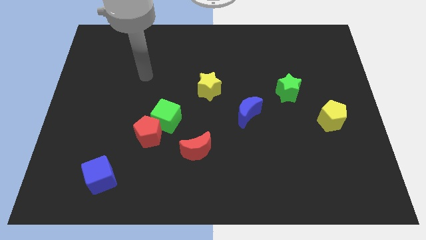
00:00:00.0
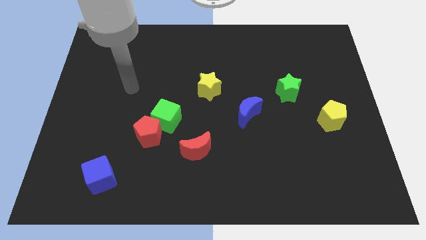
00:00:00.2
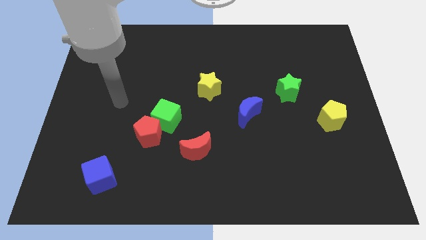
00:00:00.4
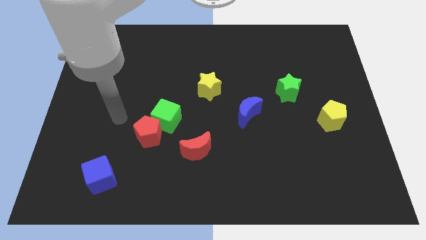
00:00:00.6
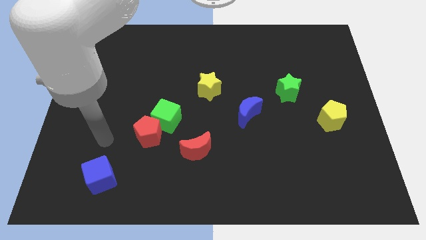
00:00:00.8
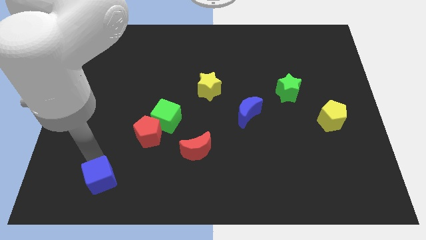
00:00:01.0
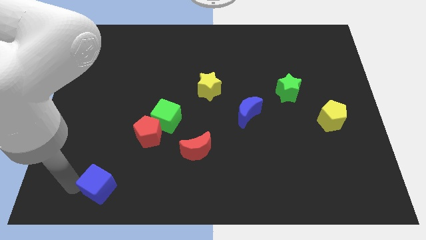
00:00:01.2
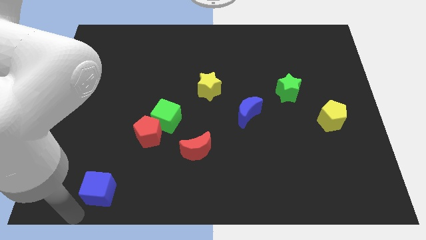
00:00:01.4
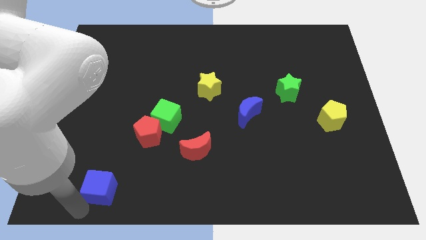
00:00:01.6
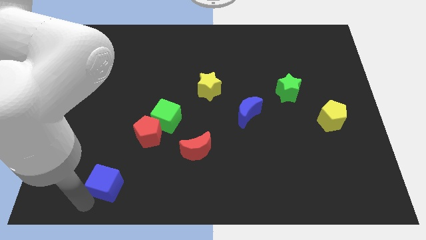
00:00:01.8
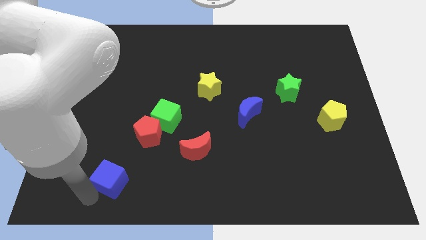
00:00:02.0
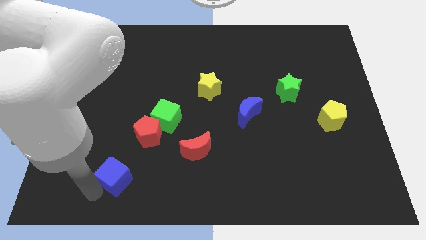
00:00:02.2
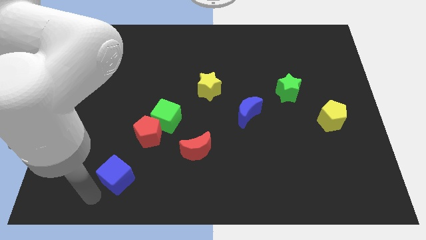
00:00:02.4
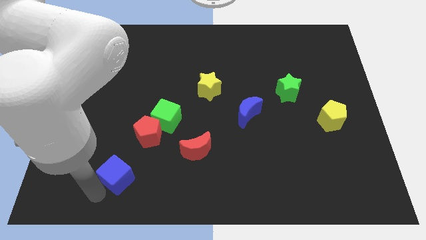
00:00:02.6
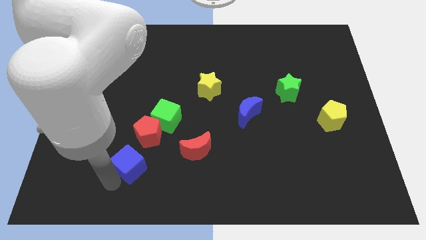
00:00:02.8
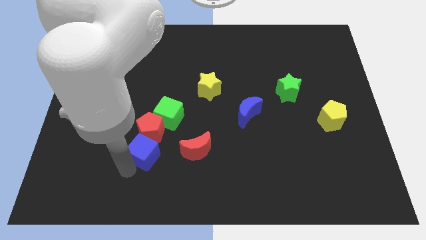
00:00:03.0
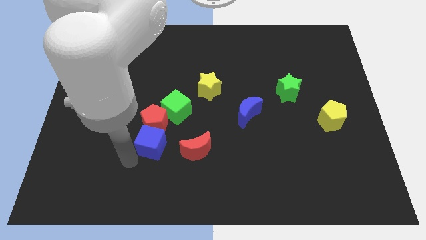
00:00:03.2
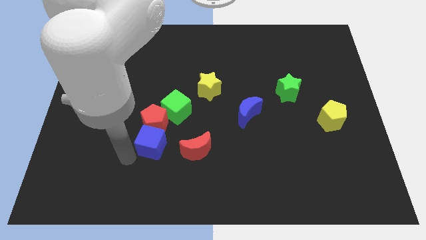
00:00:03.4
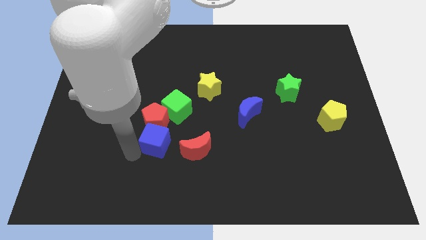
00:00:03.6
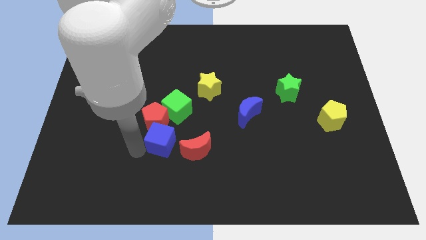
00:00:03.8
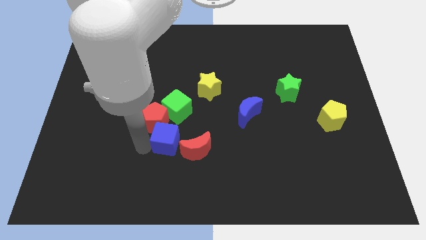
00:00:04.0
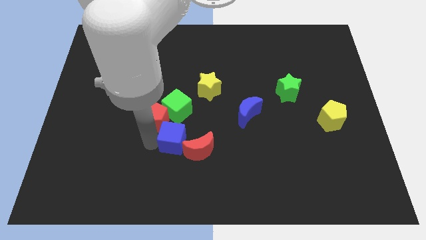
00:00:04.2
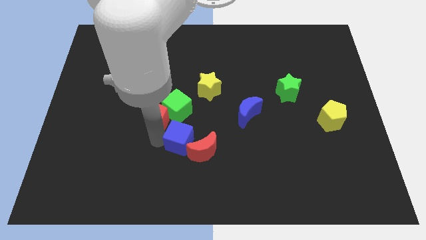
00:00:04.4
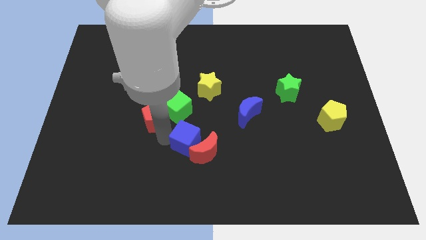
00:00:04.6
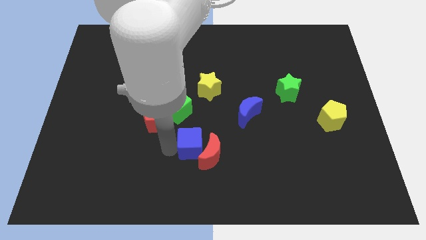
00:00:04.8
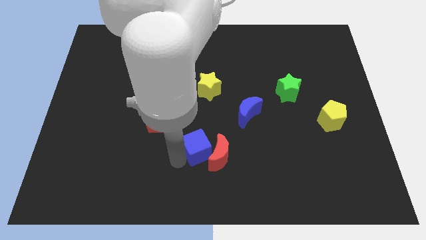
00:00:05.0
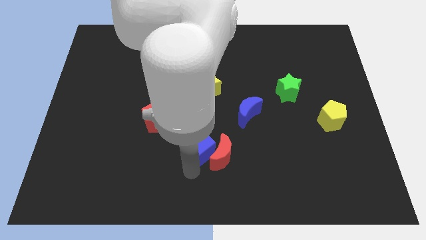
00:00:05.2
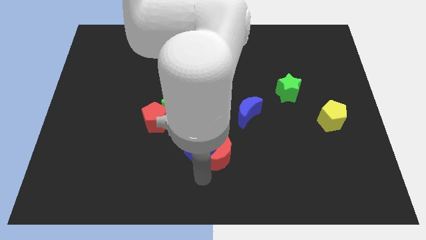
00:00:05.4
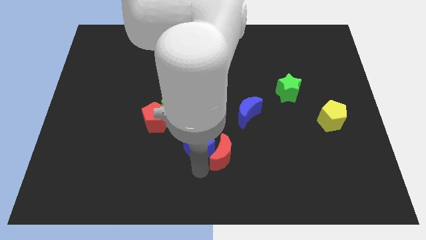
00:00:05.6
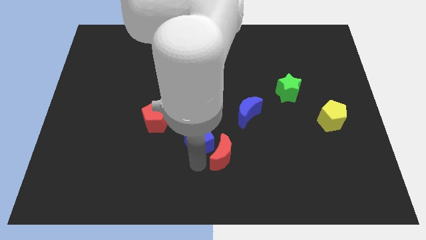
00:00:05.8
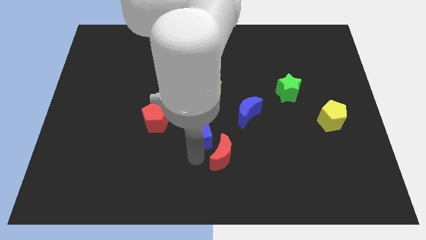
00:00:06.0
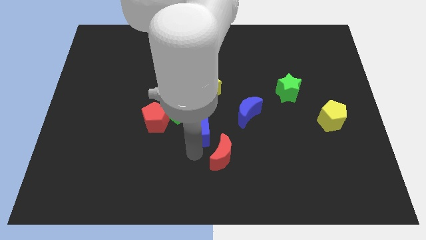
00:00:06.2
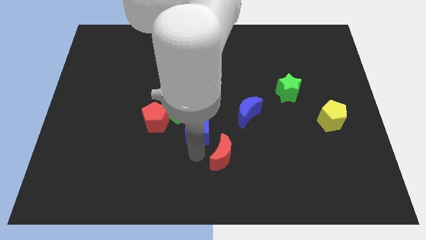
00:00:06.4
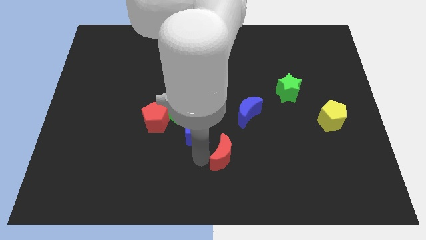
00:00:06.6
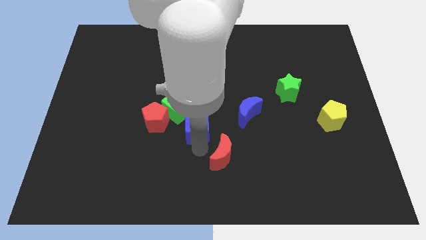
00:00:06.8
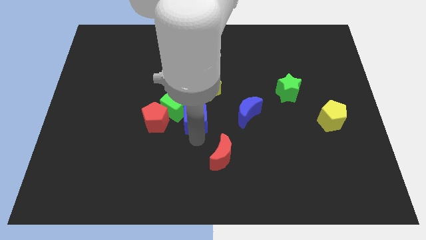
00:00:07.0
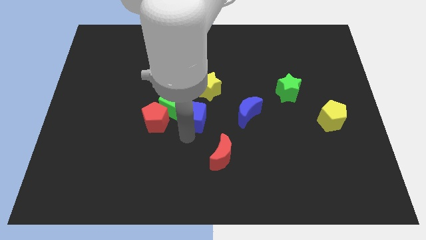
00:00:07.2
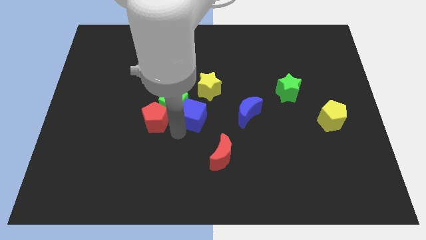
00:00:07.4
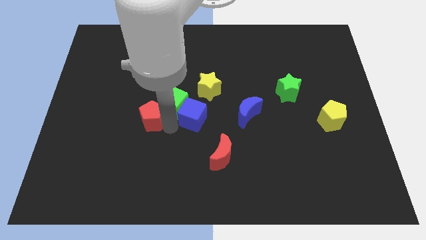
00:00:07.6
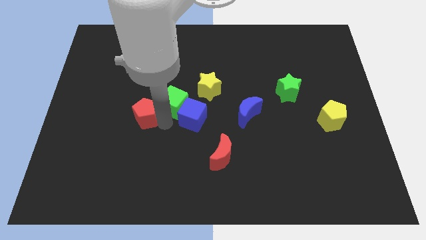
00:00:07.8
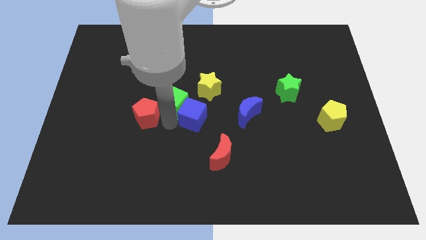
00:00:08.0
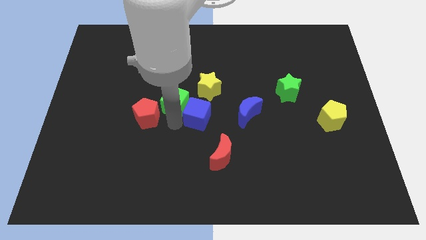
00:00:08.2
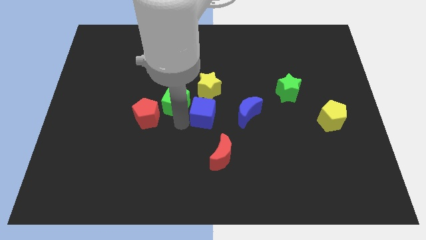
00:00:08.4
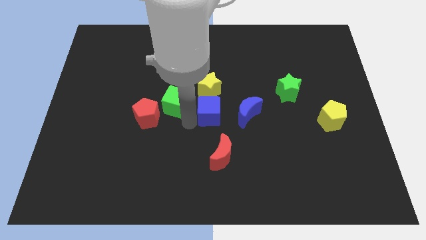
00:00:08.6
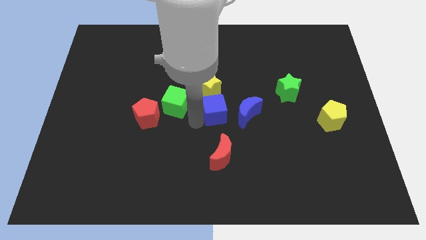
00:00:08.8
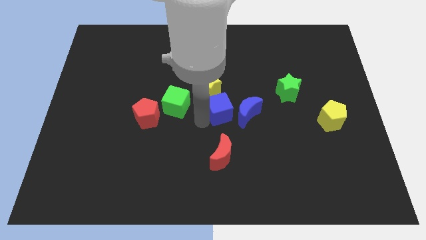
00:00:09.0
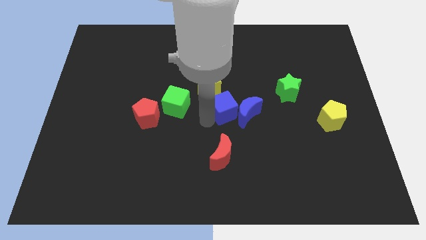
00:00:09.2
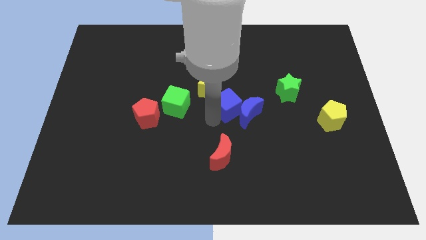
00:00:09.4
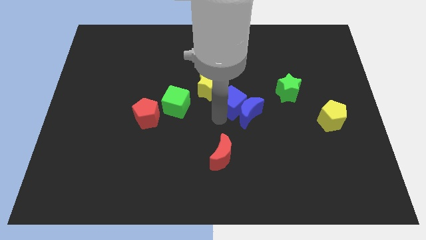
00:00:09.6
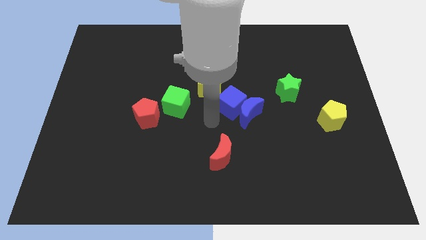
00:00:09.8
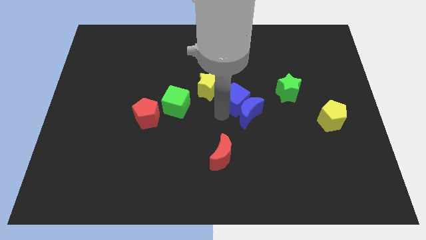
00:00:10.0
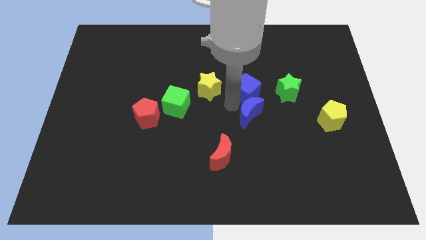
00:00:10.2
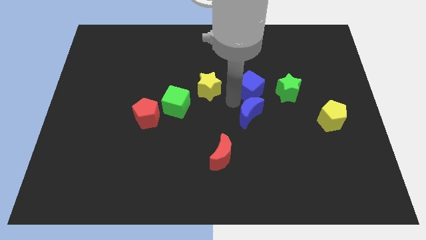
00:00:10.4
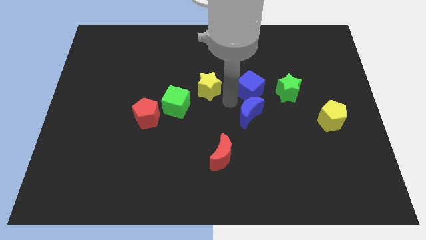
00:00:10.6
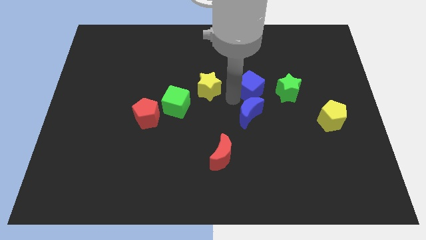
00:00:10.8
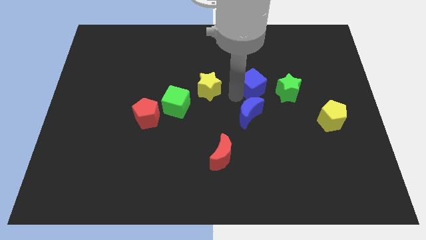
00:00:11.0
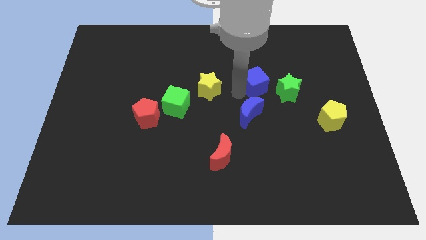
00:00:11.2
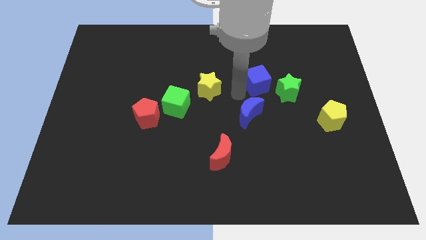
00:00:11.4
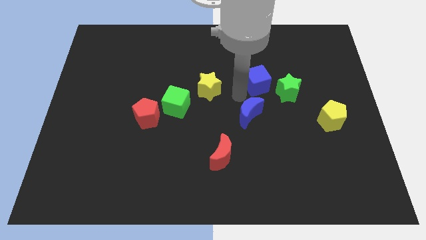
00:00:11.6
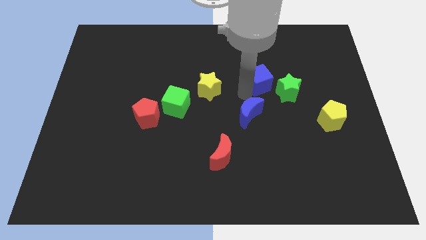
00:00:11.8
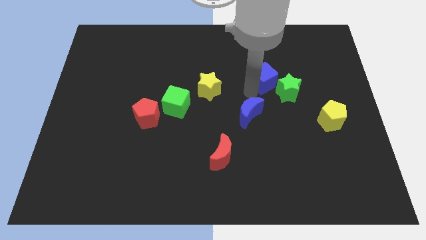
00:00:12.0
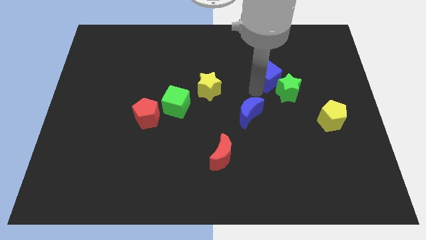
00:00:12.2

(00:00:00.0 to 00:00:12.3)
slide the blue cube above the green star

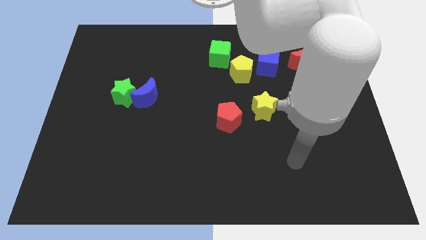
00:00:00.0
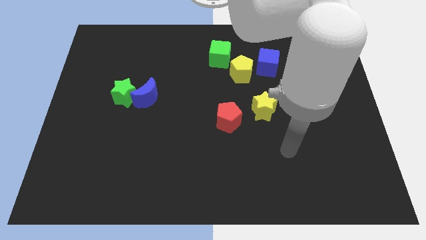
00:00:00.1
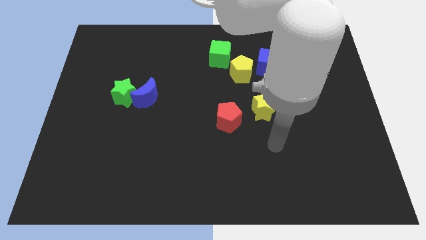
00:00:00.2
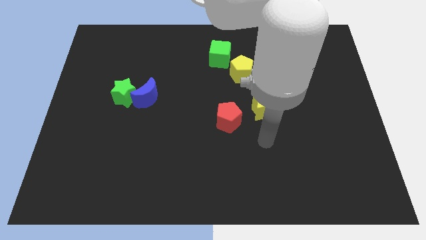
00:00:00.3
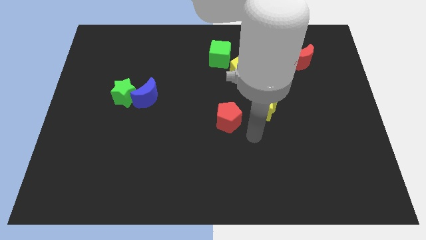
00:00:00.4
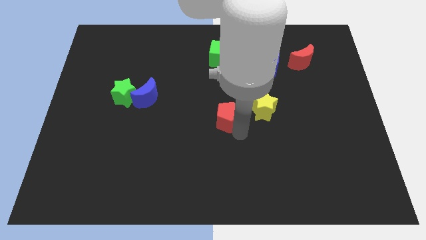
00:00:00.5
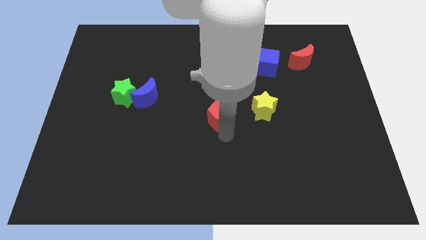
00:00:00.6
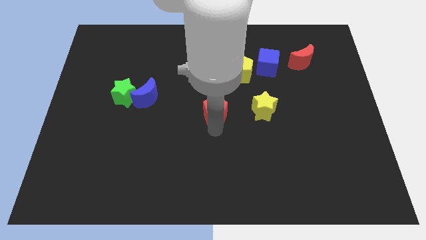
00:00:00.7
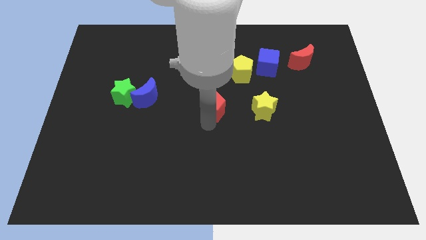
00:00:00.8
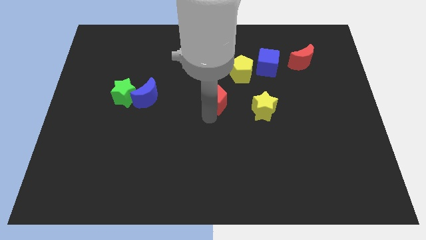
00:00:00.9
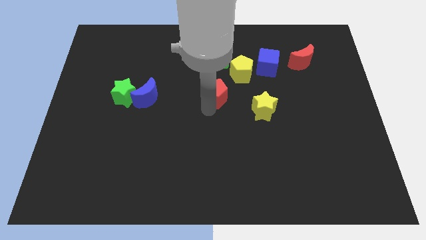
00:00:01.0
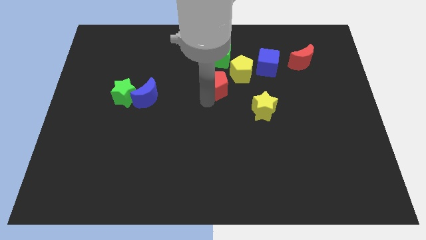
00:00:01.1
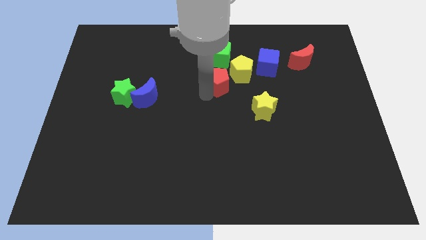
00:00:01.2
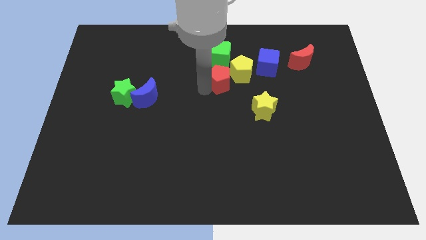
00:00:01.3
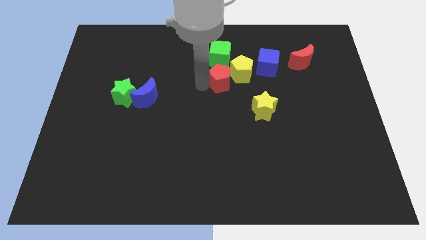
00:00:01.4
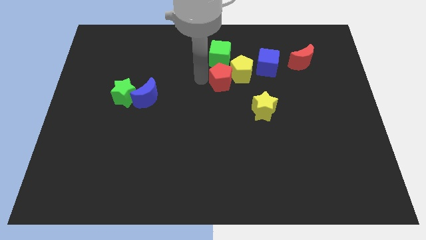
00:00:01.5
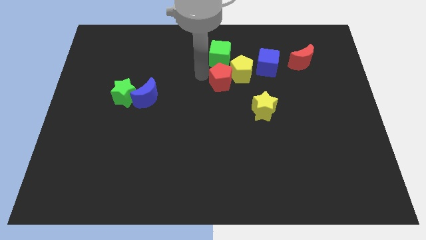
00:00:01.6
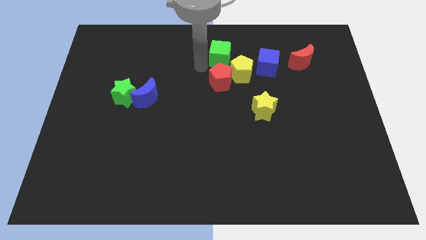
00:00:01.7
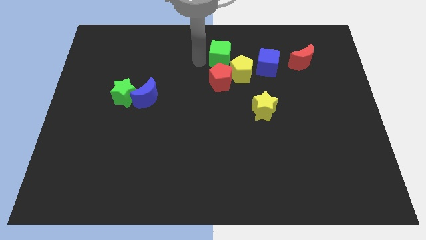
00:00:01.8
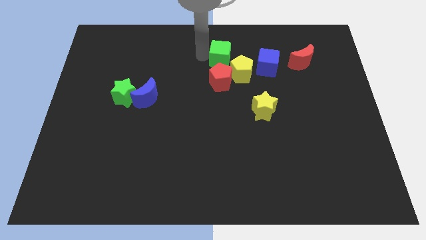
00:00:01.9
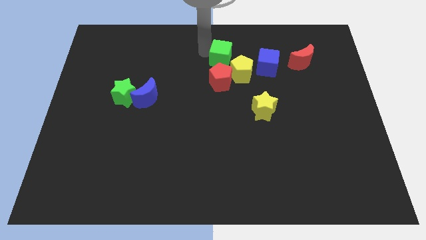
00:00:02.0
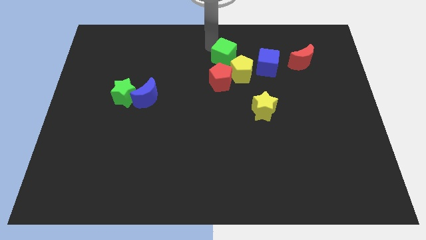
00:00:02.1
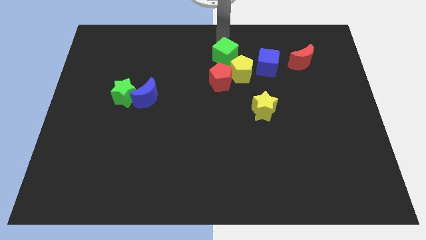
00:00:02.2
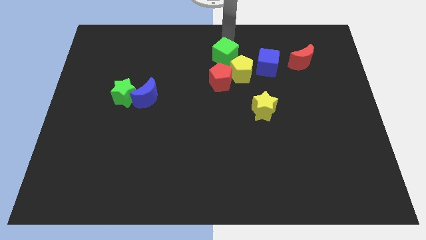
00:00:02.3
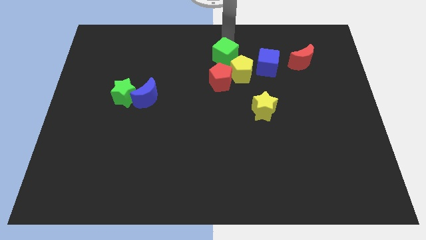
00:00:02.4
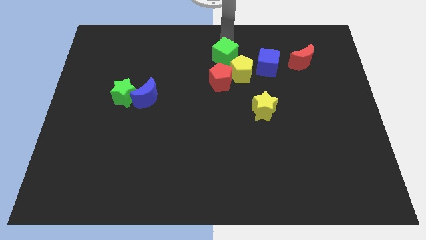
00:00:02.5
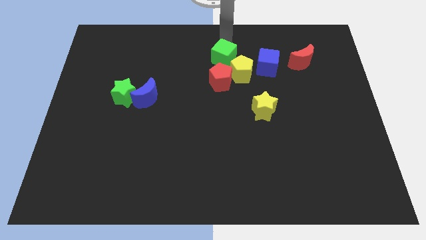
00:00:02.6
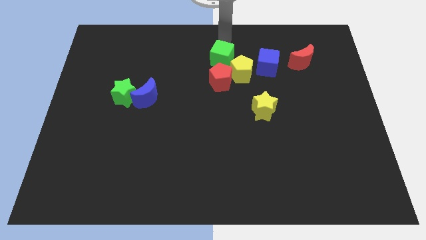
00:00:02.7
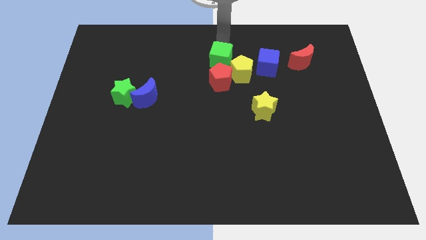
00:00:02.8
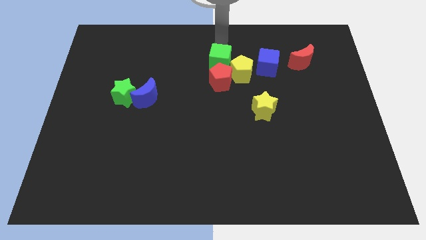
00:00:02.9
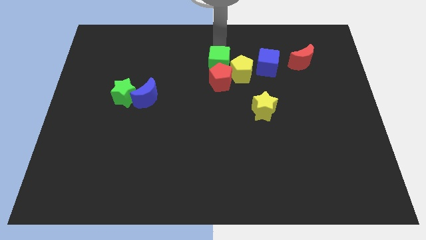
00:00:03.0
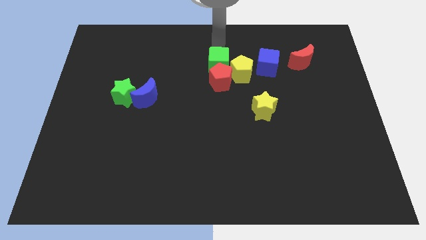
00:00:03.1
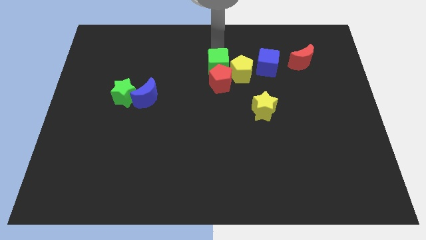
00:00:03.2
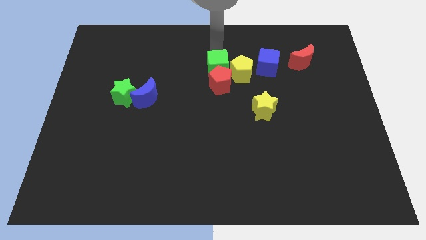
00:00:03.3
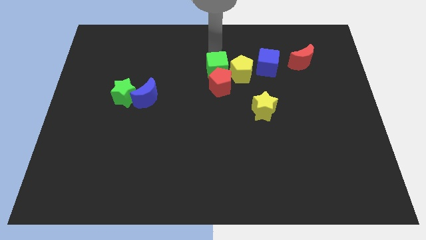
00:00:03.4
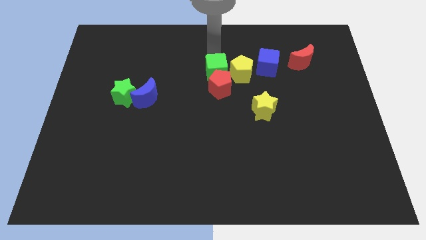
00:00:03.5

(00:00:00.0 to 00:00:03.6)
put the green cube to the bottom left of the yellow pentagon
